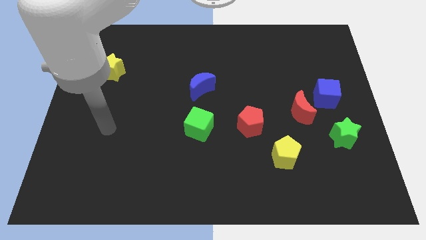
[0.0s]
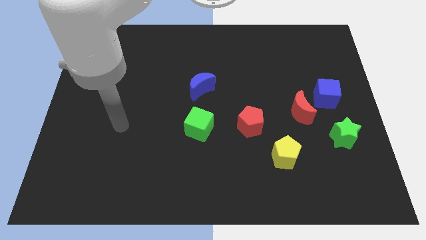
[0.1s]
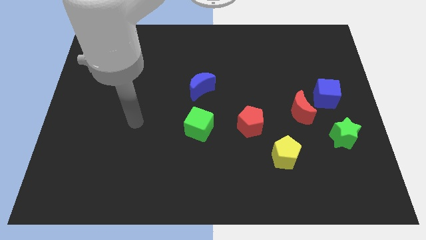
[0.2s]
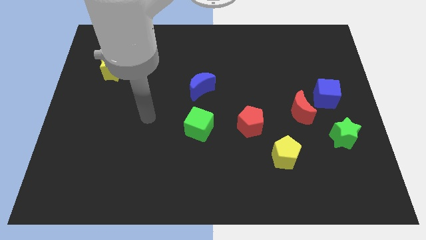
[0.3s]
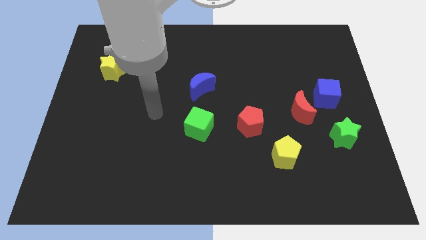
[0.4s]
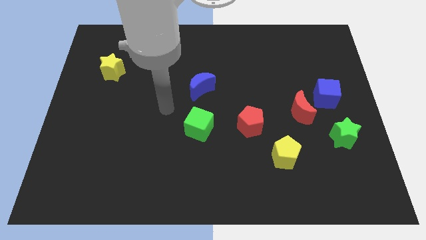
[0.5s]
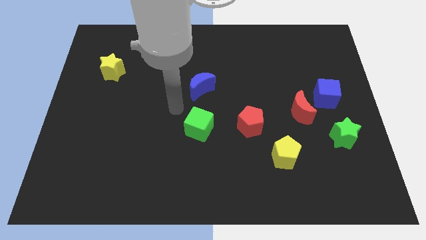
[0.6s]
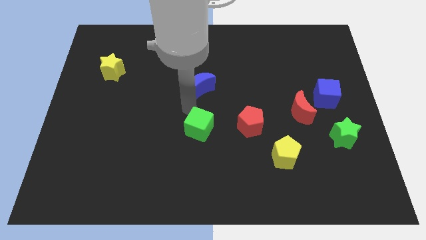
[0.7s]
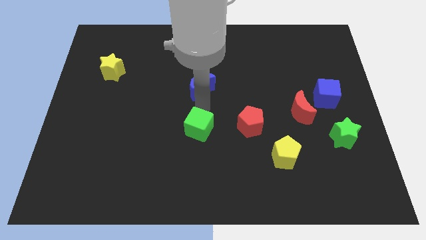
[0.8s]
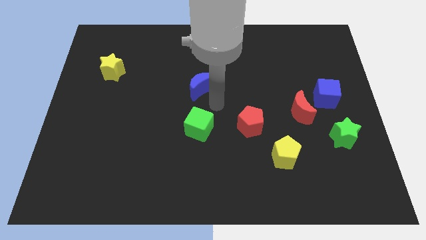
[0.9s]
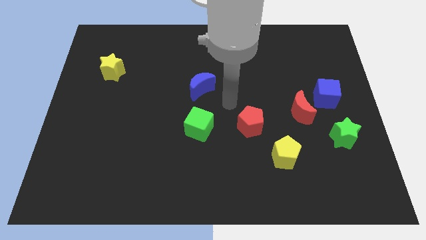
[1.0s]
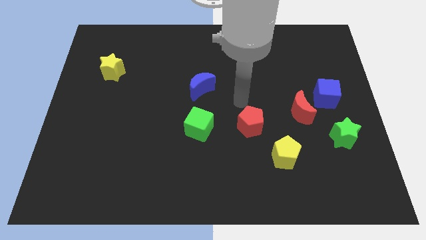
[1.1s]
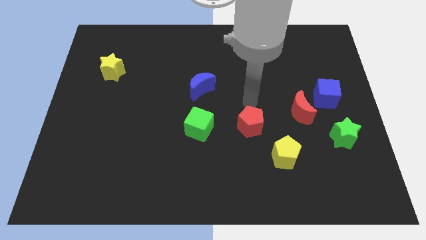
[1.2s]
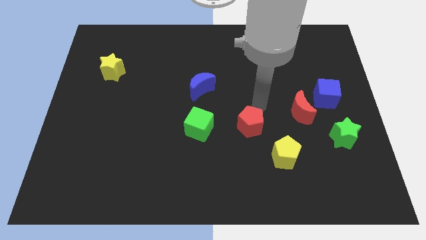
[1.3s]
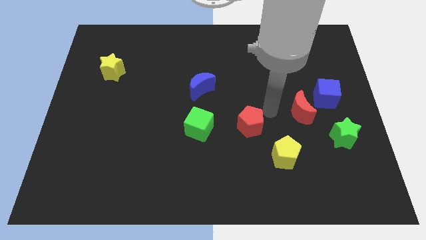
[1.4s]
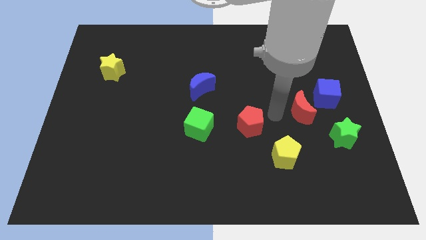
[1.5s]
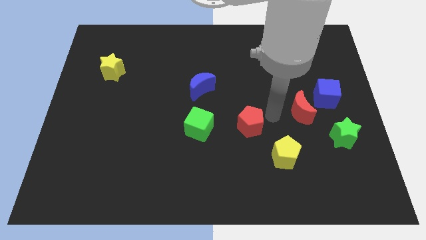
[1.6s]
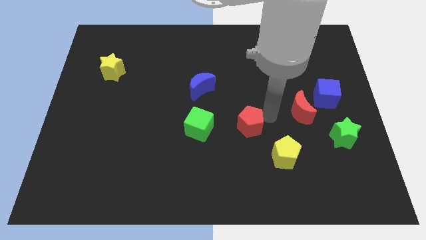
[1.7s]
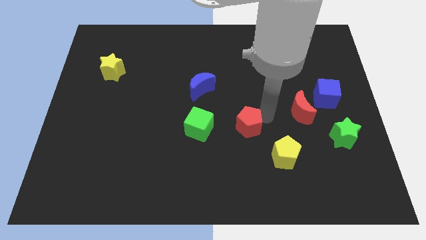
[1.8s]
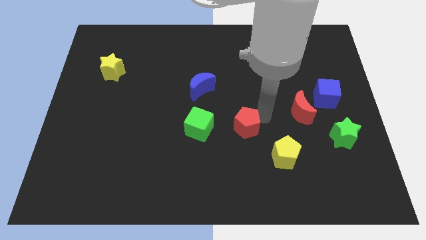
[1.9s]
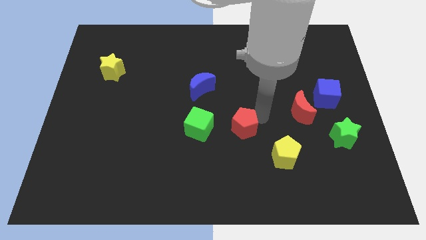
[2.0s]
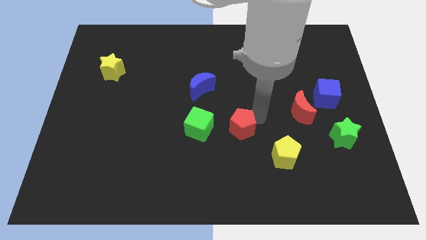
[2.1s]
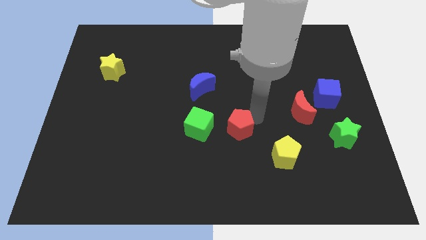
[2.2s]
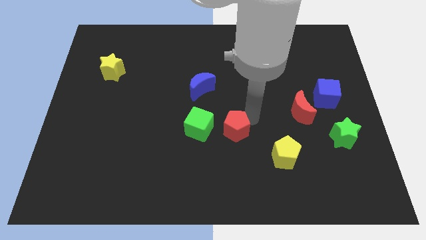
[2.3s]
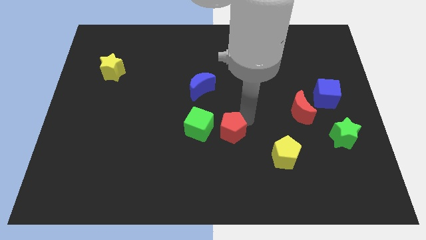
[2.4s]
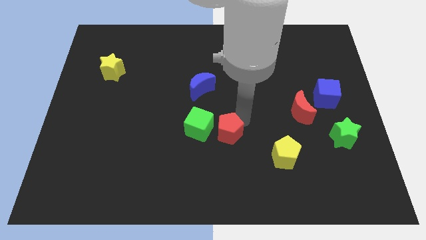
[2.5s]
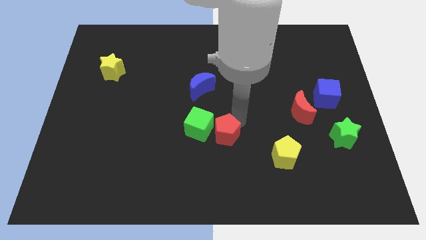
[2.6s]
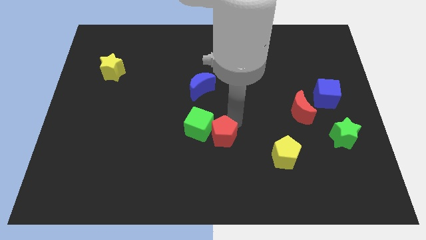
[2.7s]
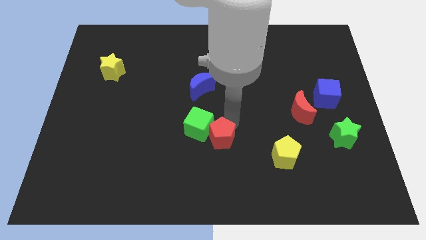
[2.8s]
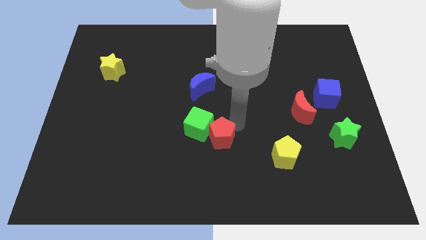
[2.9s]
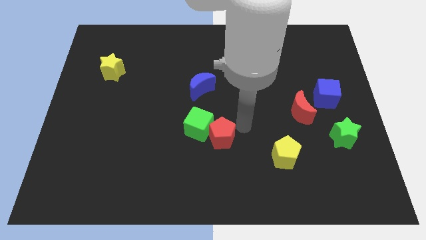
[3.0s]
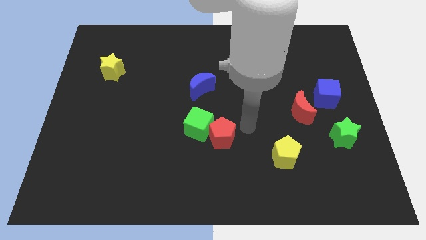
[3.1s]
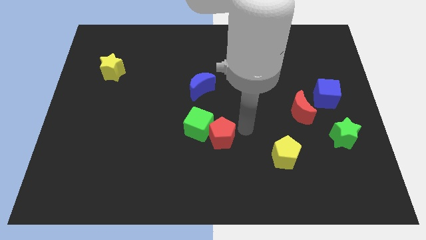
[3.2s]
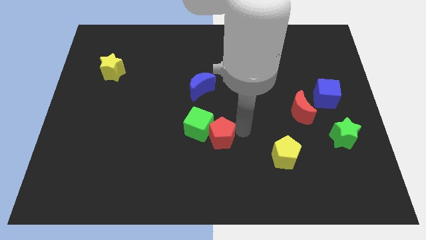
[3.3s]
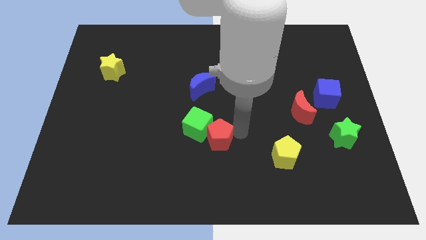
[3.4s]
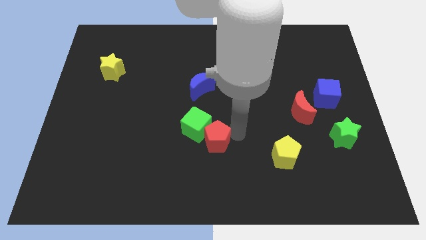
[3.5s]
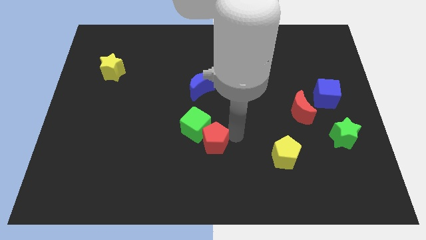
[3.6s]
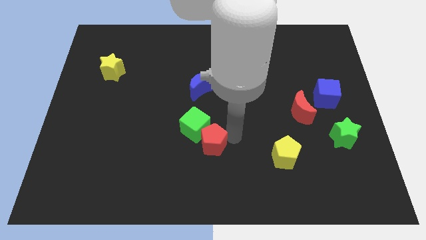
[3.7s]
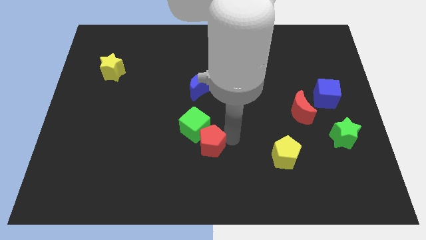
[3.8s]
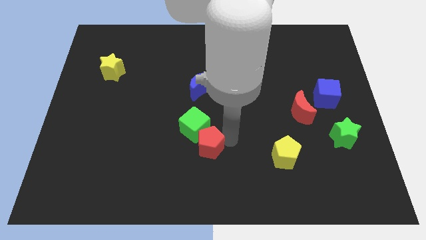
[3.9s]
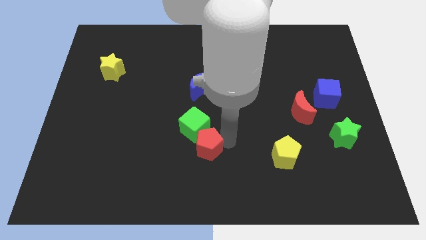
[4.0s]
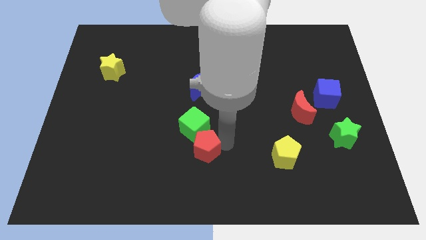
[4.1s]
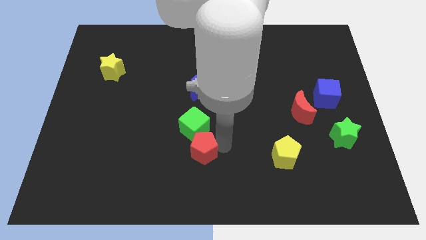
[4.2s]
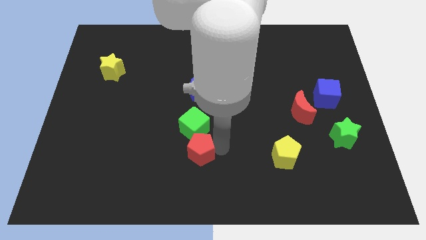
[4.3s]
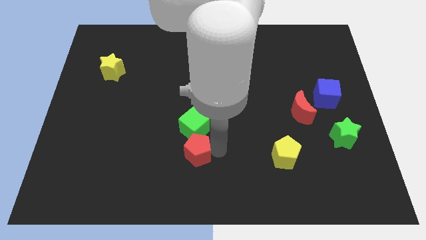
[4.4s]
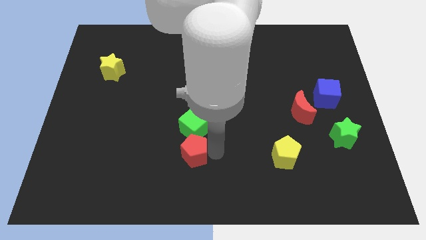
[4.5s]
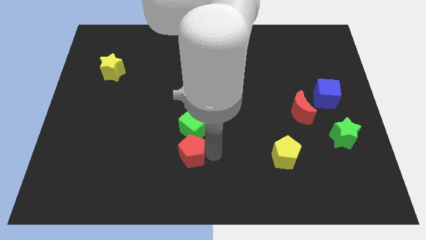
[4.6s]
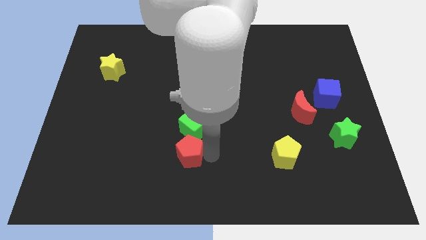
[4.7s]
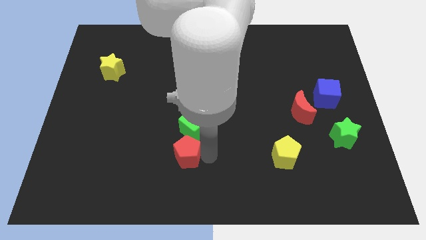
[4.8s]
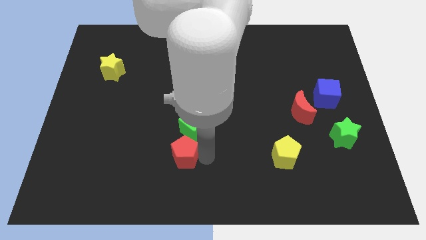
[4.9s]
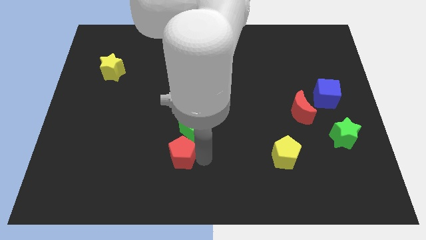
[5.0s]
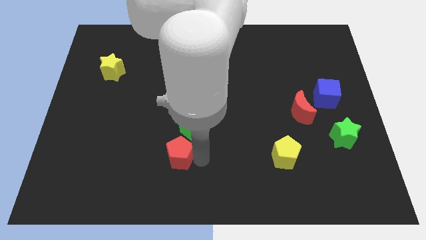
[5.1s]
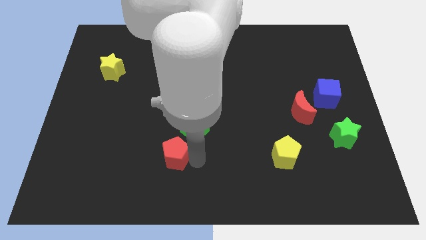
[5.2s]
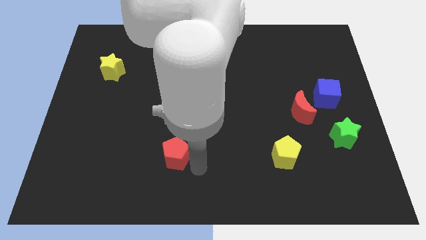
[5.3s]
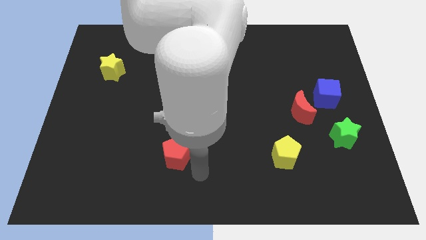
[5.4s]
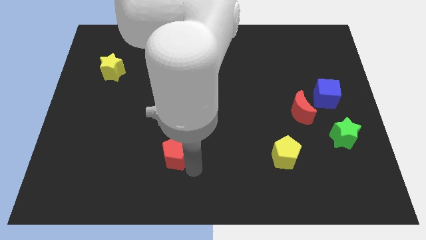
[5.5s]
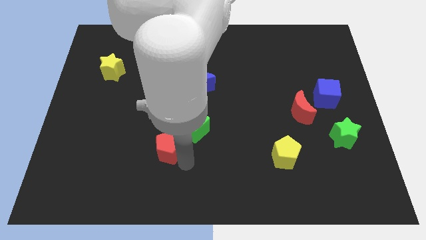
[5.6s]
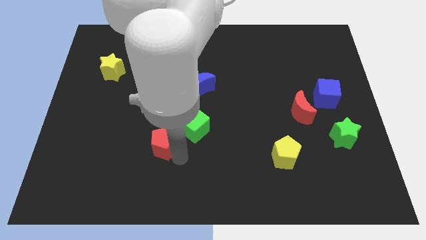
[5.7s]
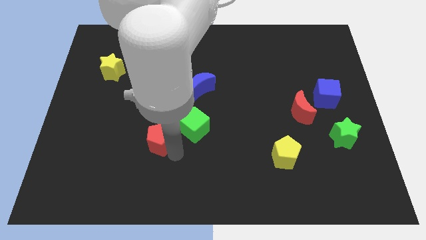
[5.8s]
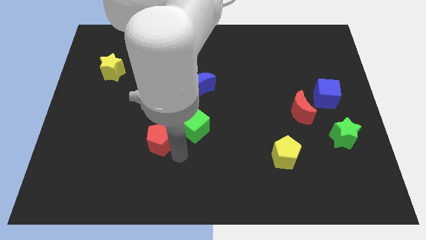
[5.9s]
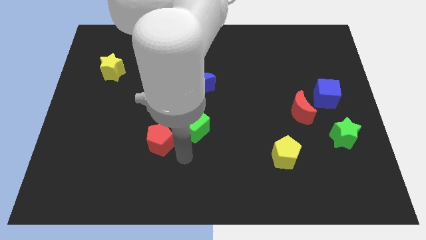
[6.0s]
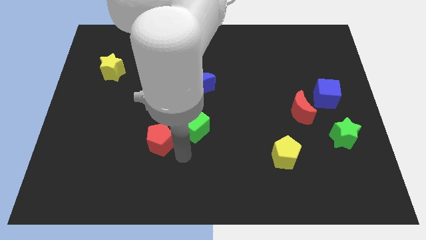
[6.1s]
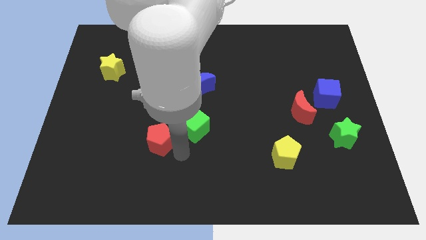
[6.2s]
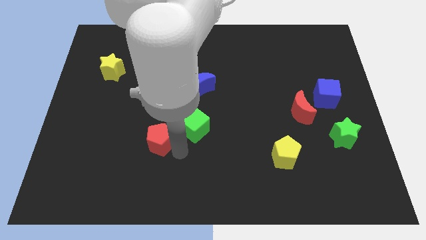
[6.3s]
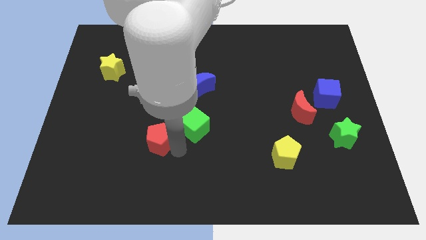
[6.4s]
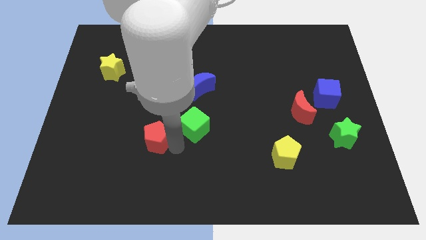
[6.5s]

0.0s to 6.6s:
push the red pentagon to the left

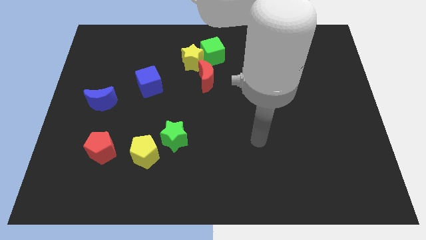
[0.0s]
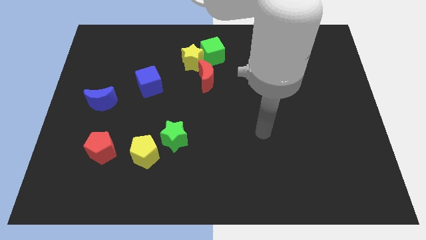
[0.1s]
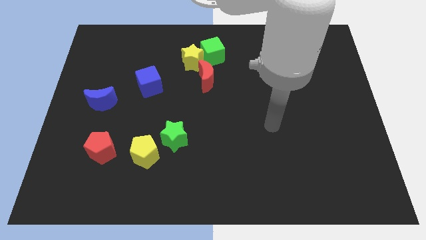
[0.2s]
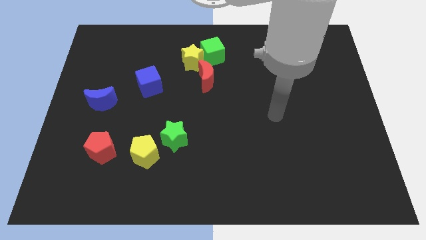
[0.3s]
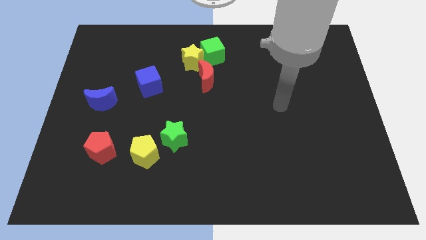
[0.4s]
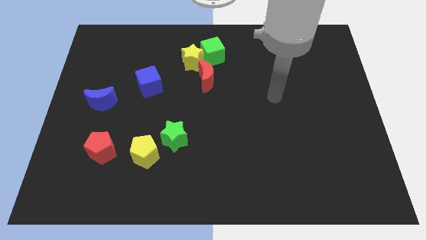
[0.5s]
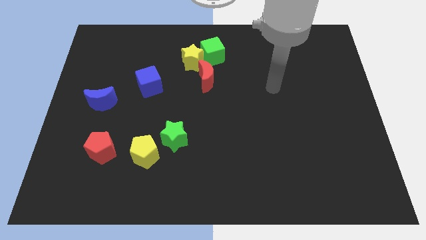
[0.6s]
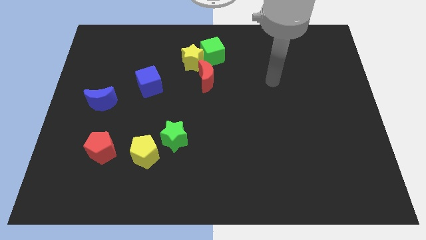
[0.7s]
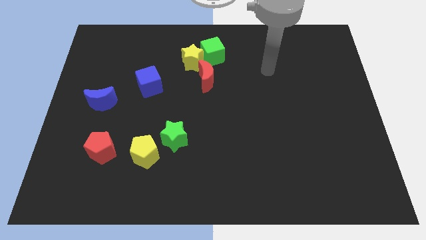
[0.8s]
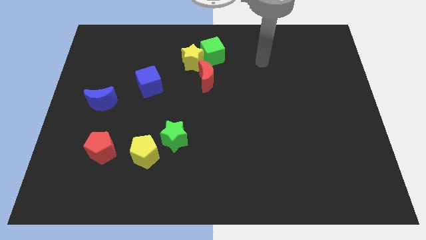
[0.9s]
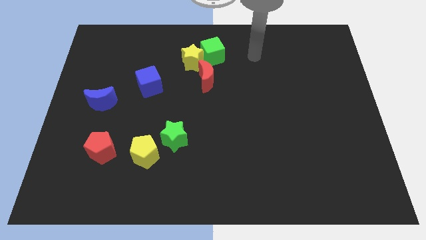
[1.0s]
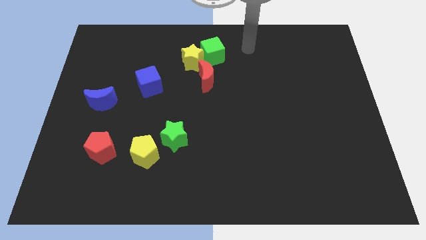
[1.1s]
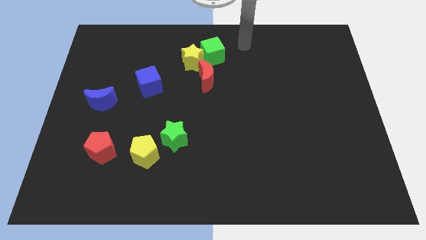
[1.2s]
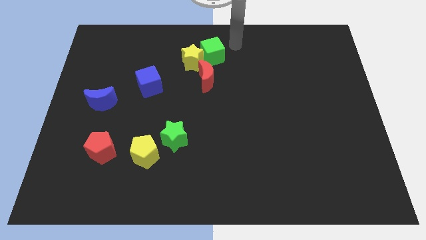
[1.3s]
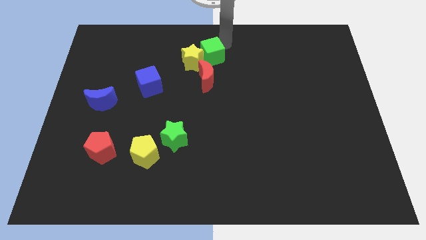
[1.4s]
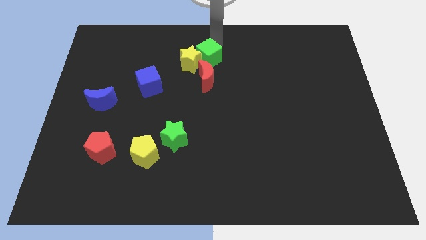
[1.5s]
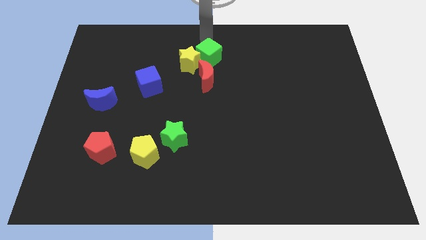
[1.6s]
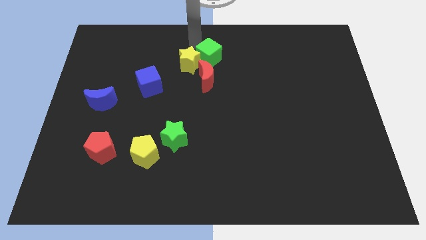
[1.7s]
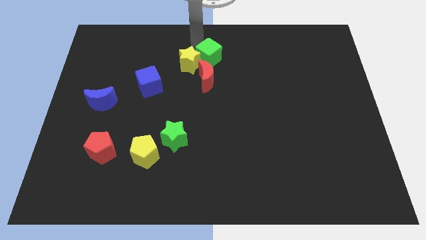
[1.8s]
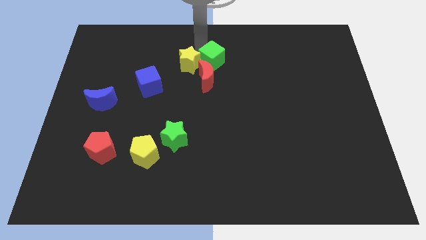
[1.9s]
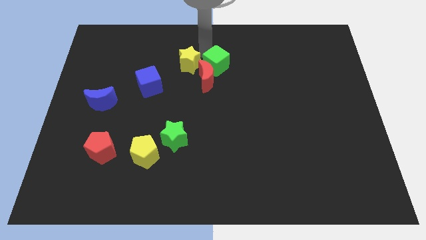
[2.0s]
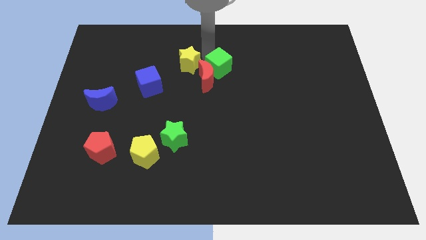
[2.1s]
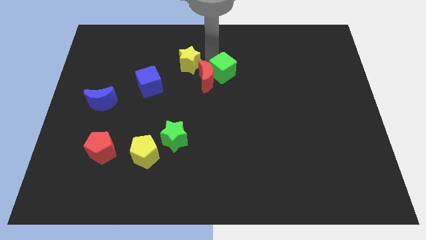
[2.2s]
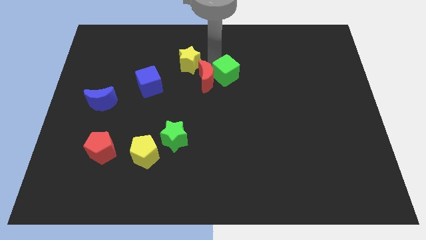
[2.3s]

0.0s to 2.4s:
move the green cube down and then right a bit
